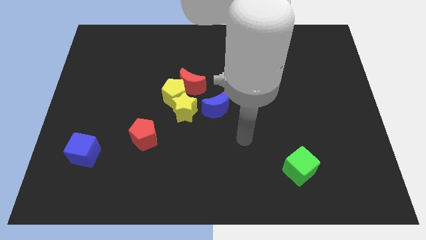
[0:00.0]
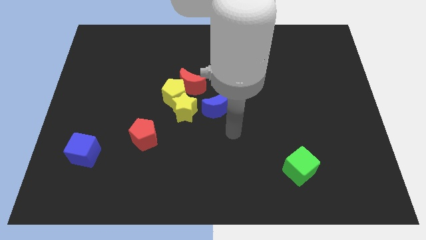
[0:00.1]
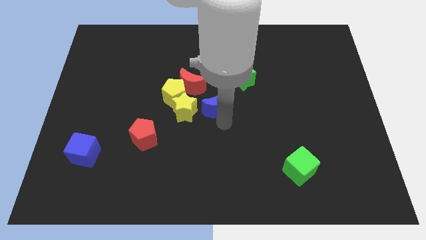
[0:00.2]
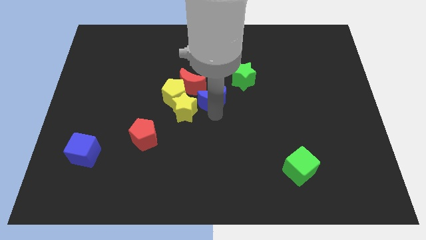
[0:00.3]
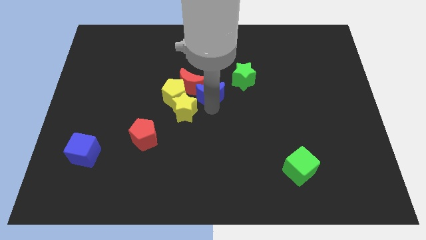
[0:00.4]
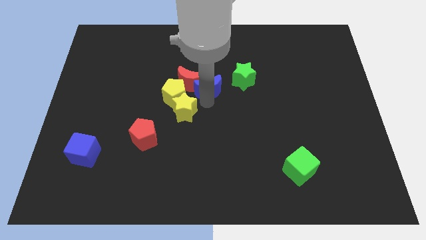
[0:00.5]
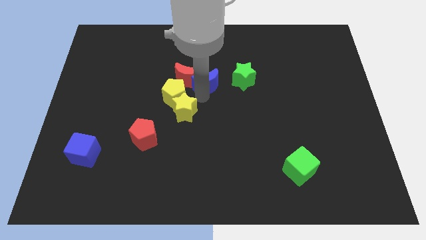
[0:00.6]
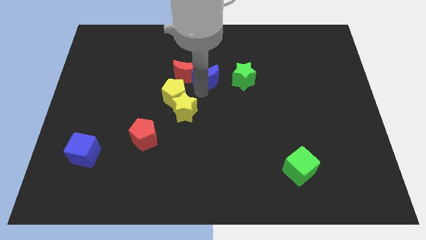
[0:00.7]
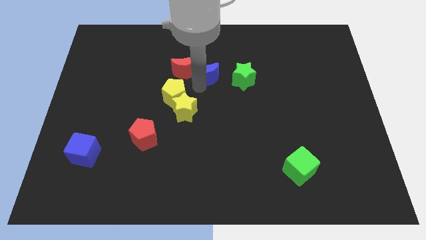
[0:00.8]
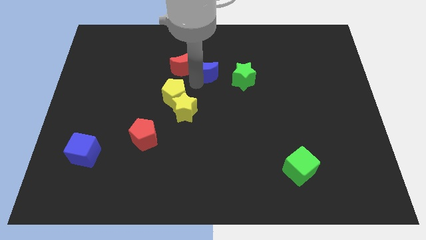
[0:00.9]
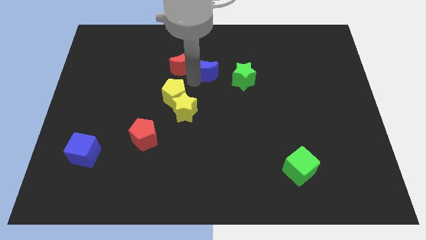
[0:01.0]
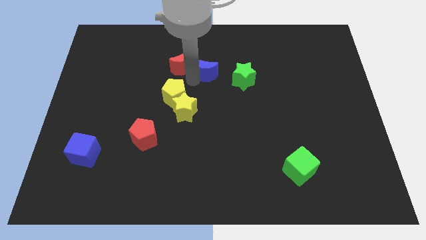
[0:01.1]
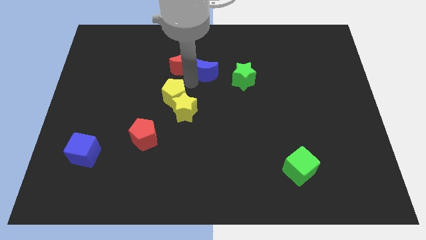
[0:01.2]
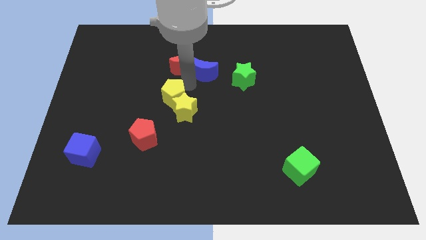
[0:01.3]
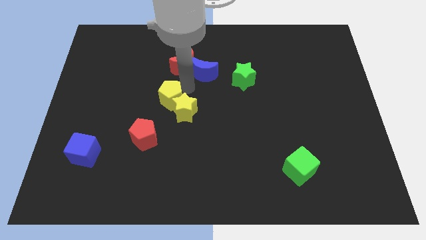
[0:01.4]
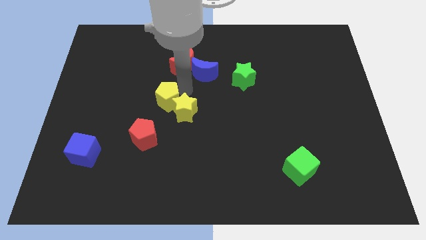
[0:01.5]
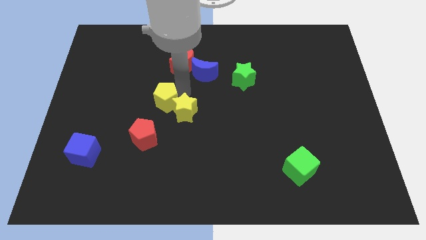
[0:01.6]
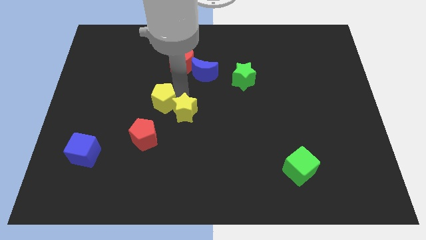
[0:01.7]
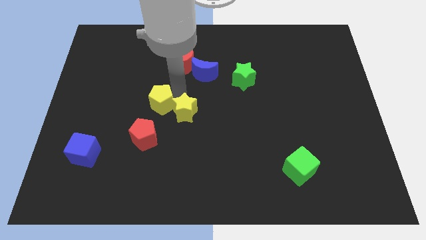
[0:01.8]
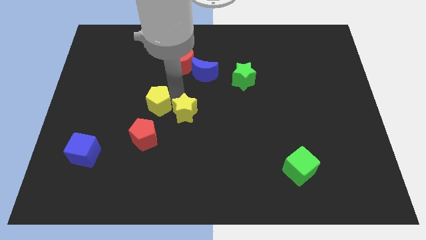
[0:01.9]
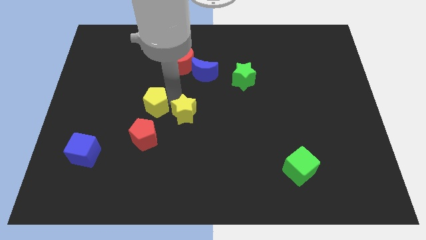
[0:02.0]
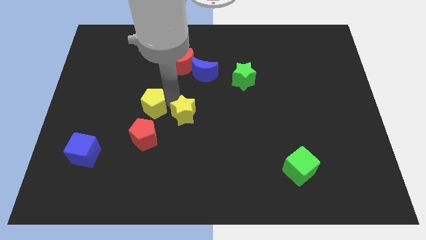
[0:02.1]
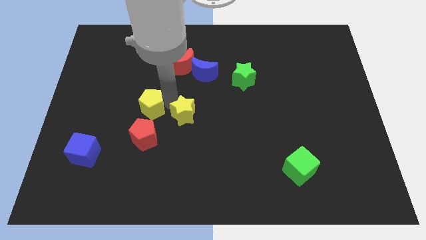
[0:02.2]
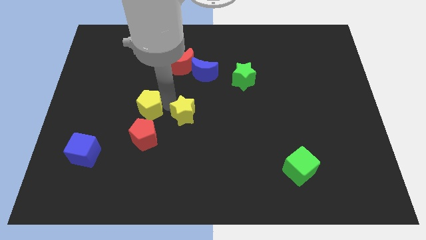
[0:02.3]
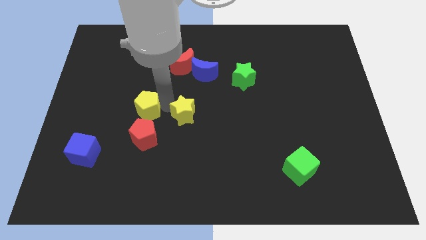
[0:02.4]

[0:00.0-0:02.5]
pull the yellow pentagon apart from the red moon and yellow star

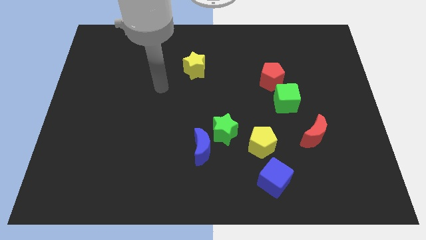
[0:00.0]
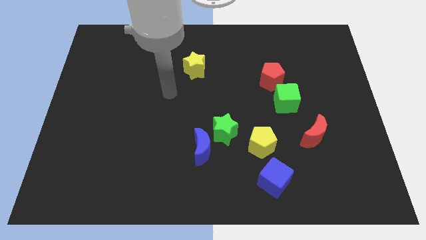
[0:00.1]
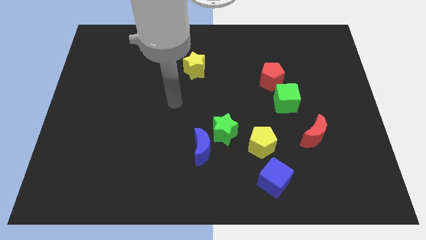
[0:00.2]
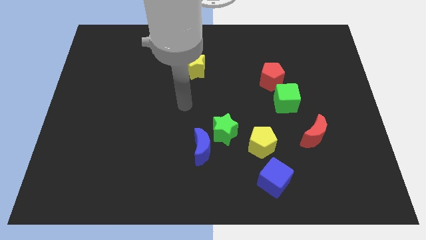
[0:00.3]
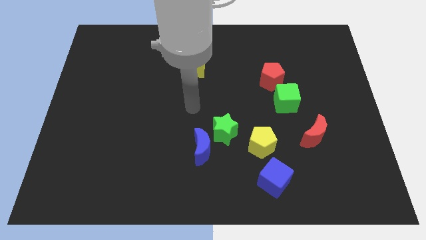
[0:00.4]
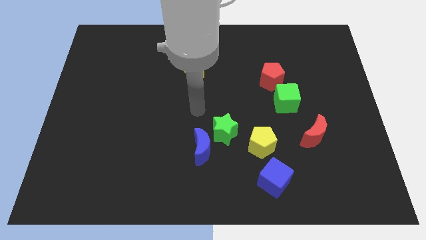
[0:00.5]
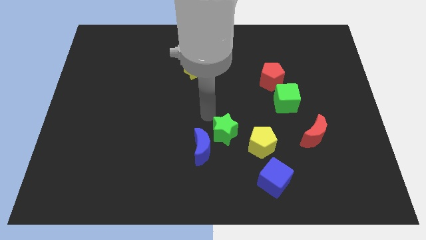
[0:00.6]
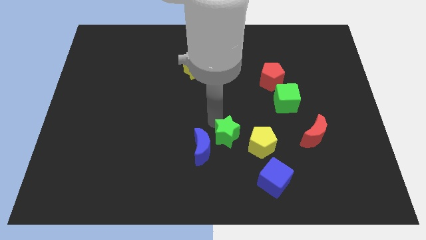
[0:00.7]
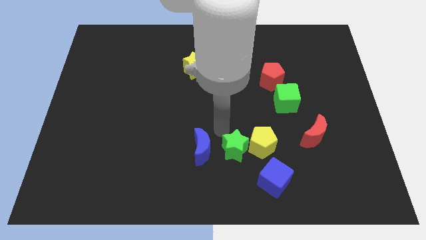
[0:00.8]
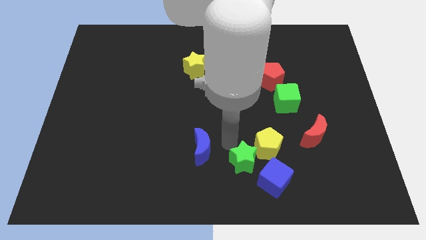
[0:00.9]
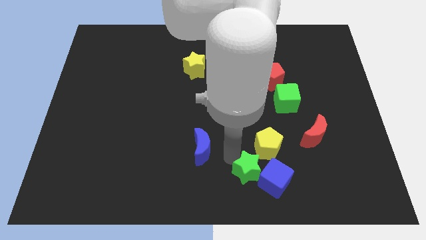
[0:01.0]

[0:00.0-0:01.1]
pull the blue moon apart from the green star

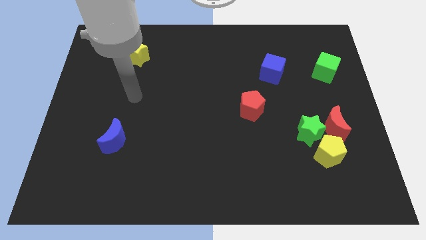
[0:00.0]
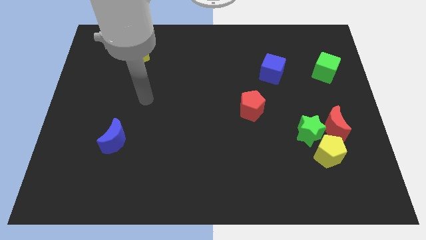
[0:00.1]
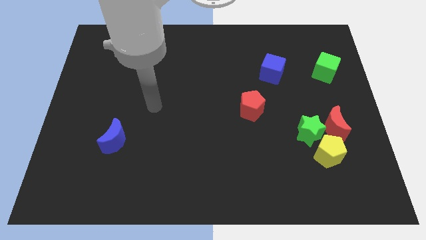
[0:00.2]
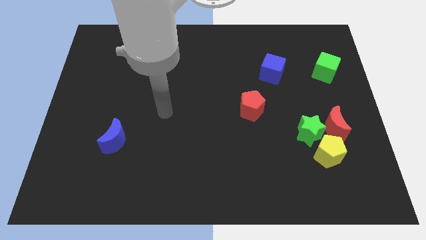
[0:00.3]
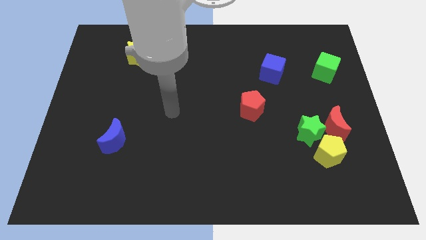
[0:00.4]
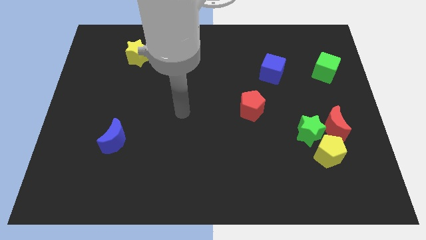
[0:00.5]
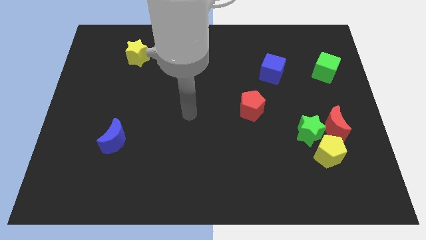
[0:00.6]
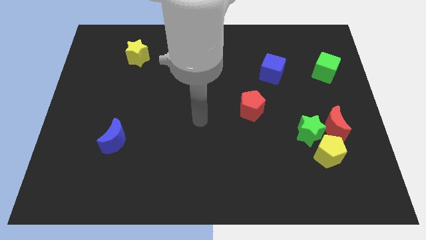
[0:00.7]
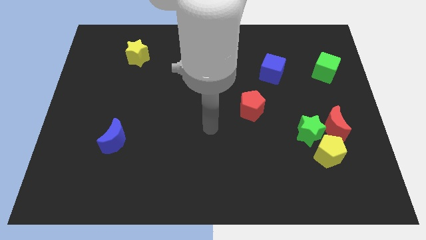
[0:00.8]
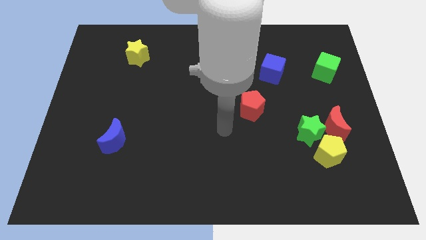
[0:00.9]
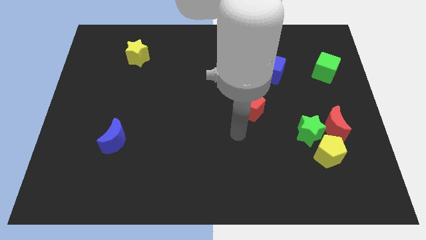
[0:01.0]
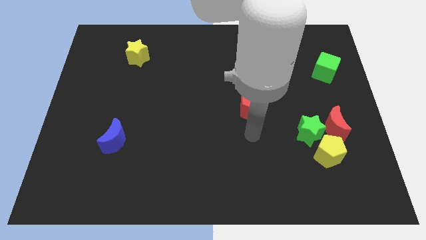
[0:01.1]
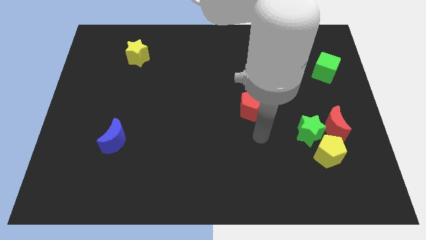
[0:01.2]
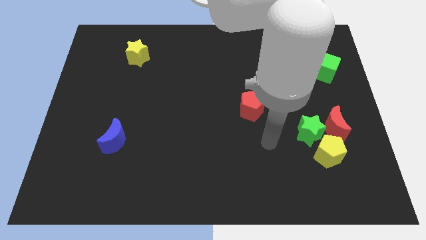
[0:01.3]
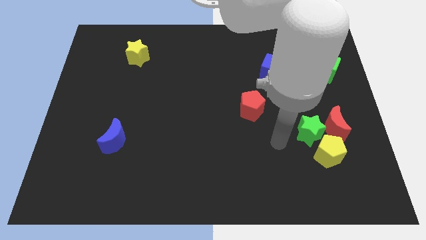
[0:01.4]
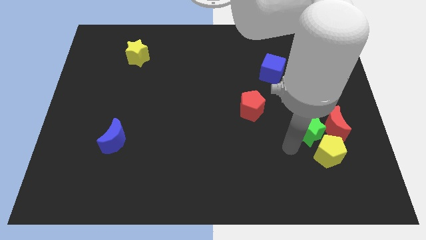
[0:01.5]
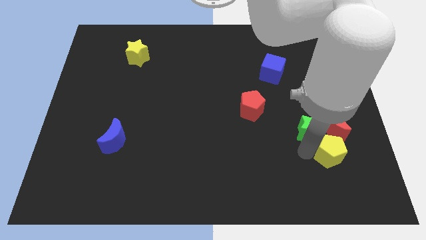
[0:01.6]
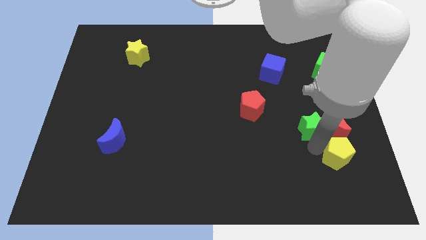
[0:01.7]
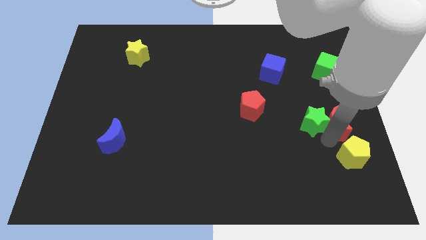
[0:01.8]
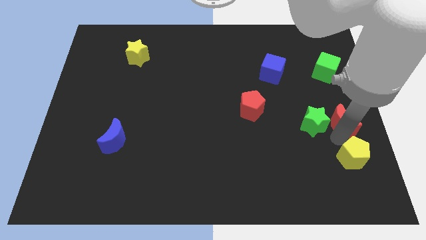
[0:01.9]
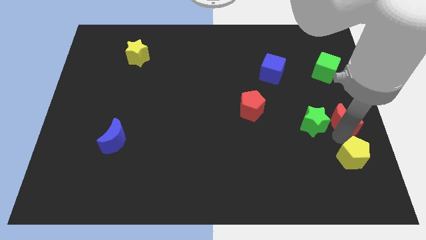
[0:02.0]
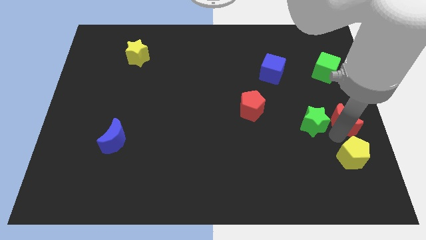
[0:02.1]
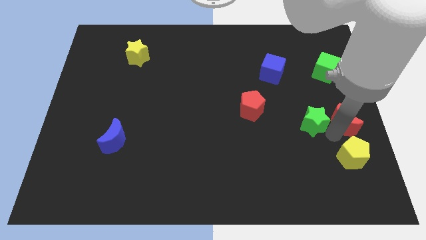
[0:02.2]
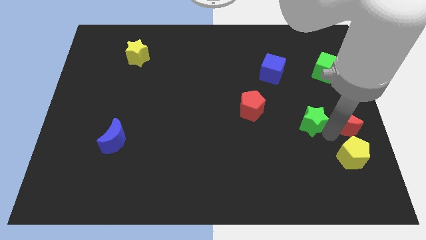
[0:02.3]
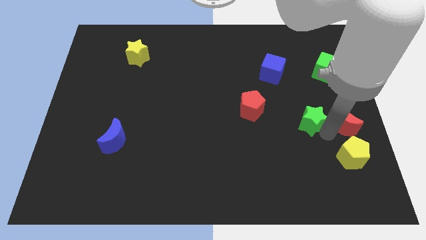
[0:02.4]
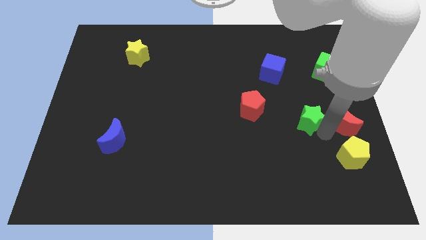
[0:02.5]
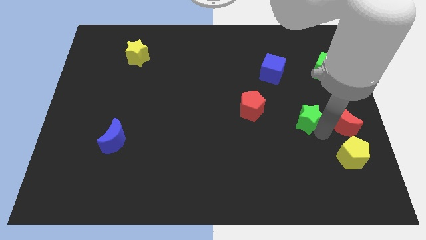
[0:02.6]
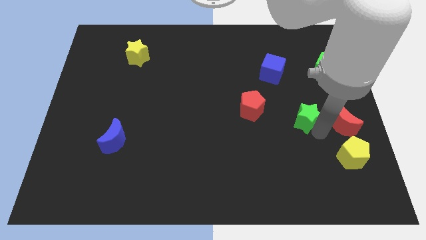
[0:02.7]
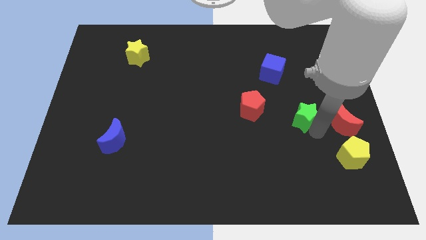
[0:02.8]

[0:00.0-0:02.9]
separate the green star from the yellow pentagon and red moon

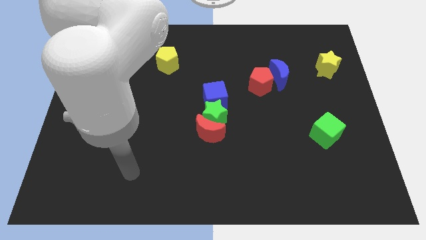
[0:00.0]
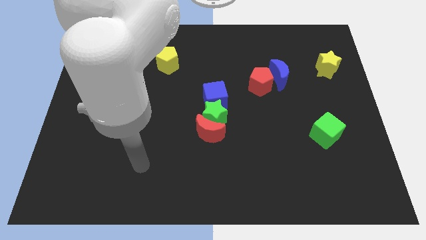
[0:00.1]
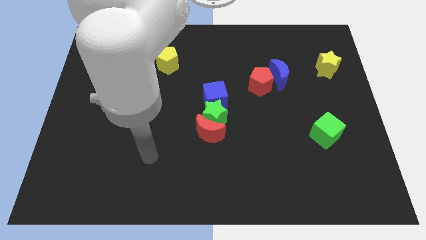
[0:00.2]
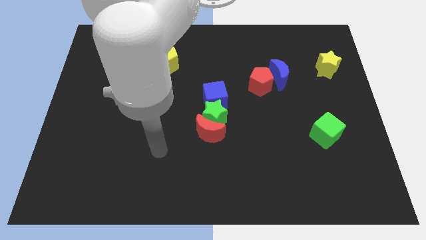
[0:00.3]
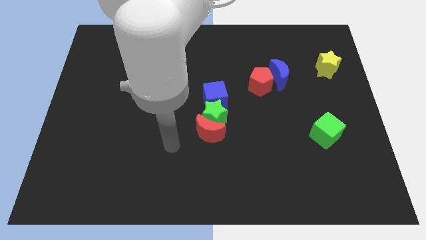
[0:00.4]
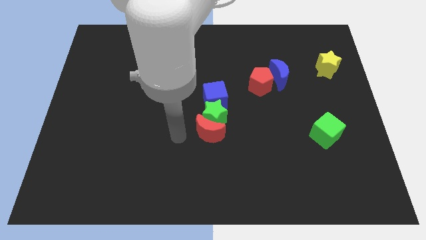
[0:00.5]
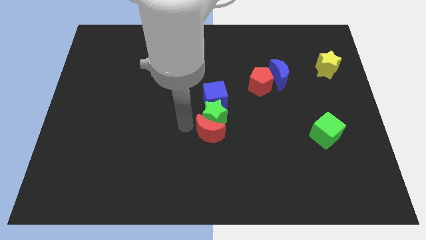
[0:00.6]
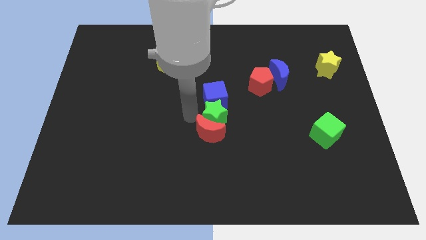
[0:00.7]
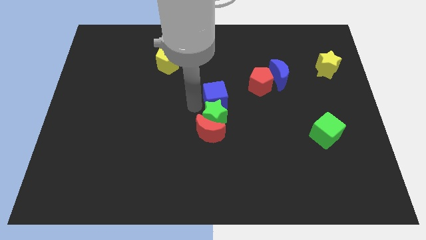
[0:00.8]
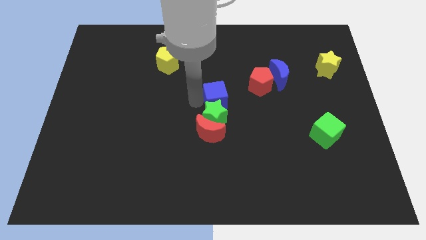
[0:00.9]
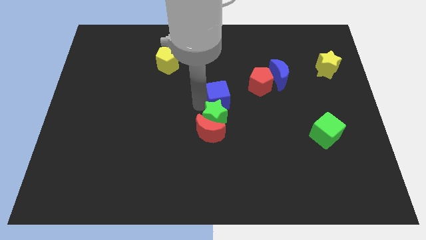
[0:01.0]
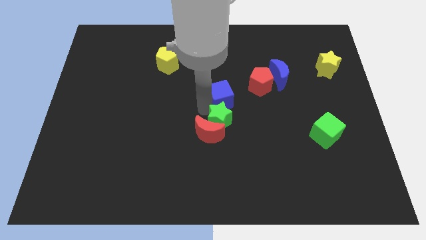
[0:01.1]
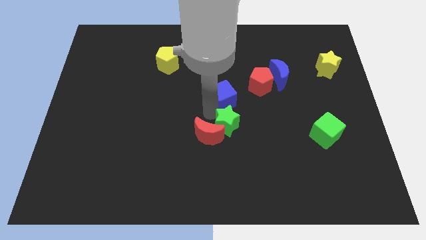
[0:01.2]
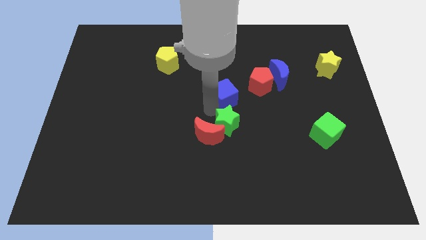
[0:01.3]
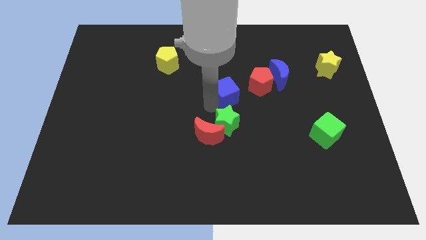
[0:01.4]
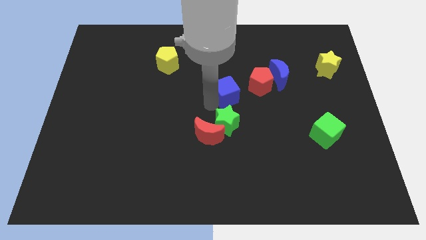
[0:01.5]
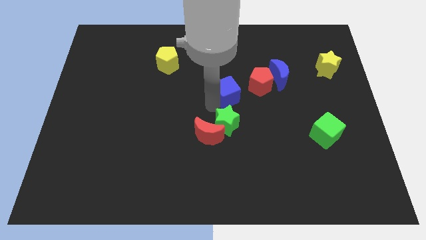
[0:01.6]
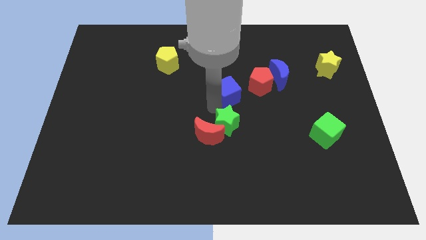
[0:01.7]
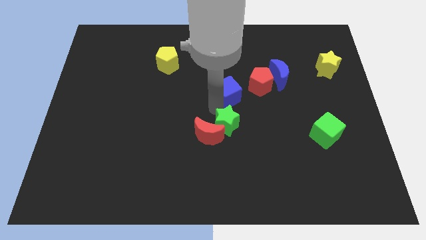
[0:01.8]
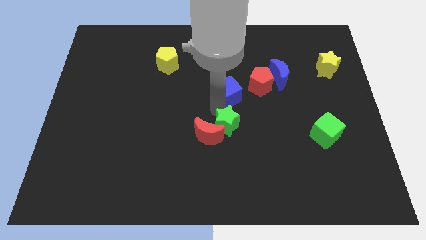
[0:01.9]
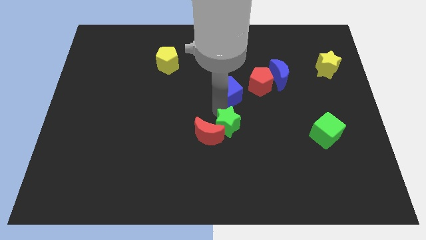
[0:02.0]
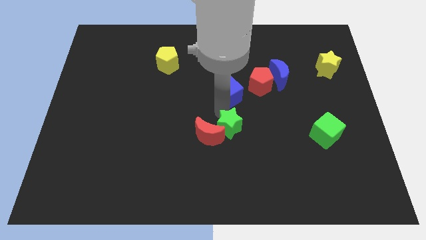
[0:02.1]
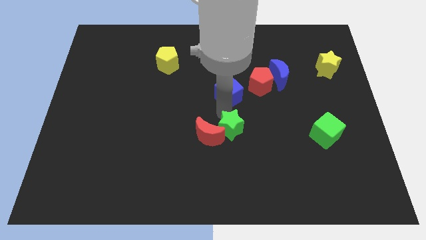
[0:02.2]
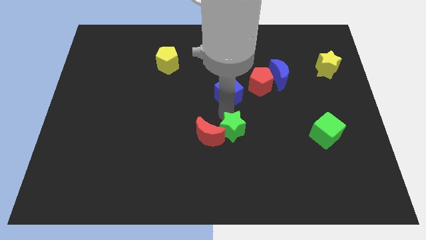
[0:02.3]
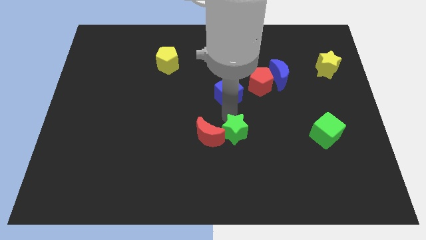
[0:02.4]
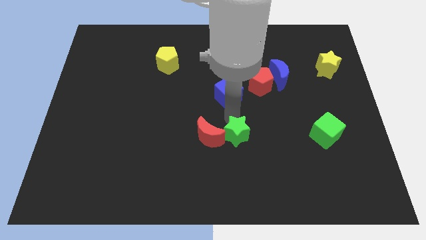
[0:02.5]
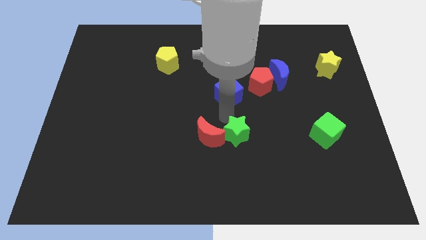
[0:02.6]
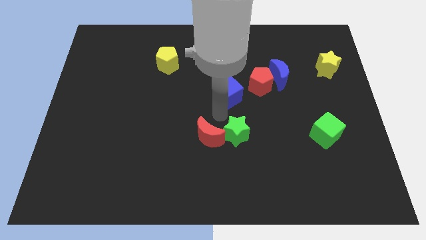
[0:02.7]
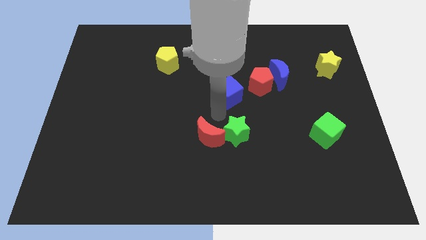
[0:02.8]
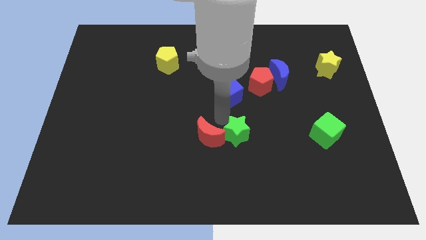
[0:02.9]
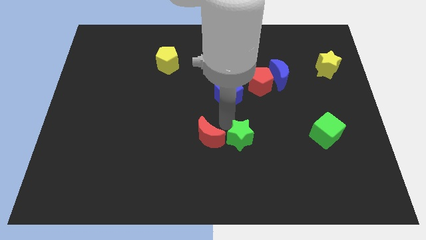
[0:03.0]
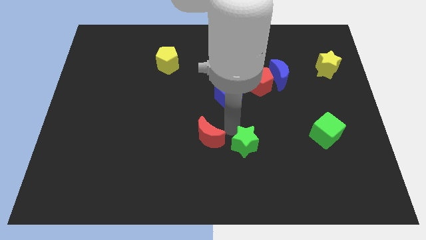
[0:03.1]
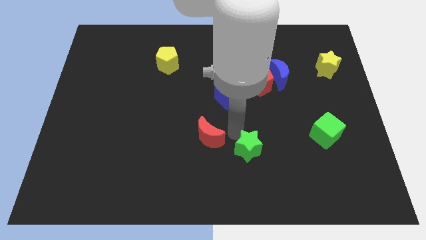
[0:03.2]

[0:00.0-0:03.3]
separate the green star from the red moon and blue cube
